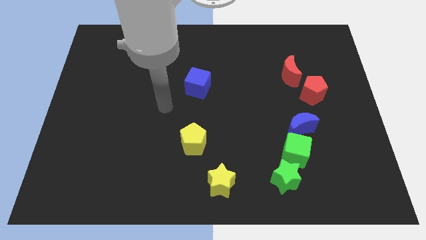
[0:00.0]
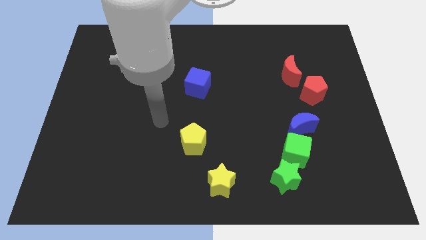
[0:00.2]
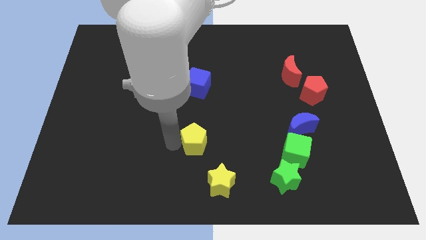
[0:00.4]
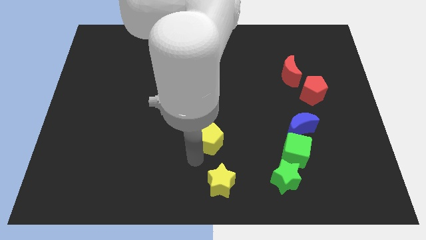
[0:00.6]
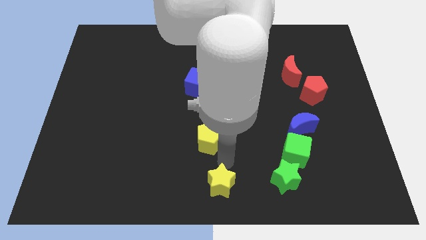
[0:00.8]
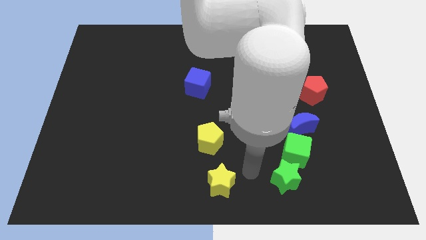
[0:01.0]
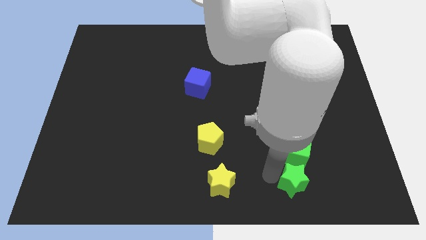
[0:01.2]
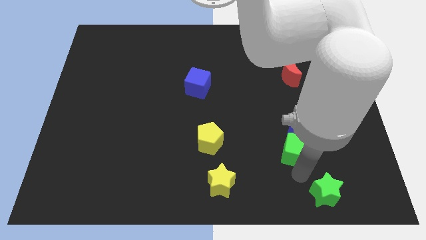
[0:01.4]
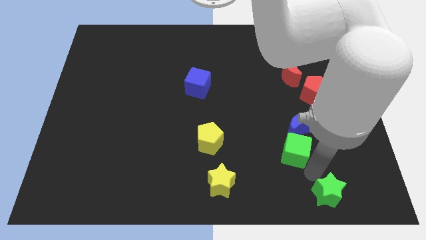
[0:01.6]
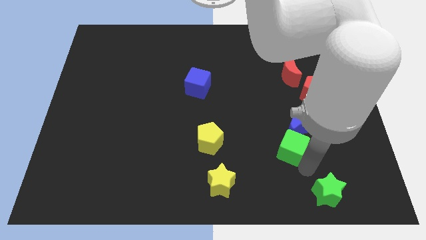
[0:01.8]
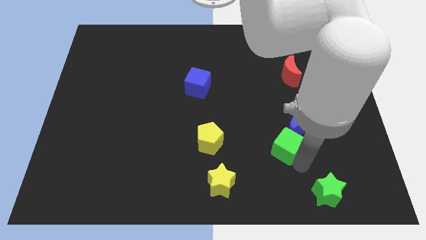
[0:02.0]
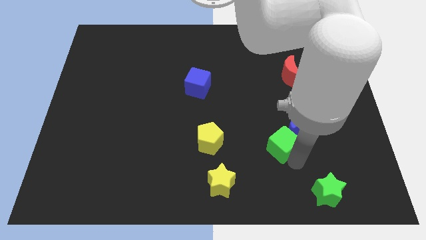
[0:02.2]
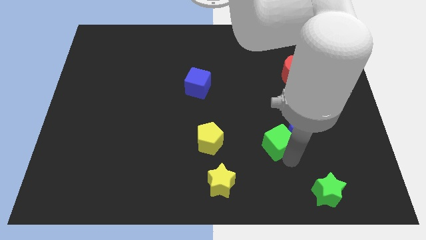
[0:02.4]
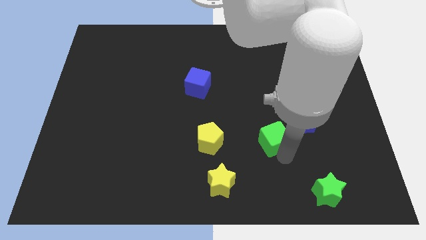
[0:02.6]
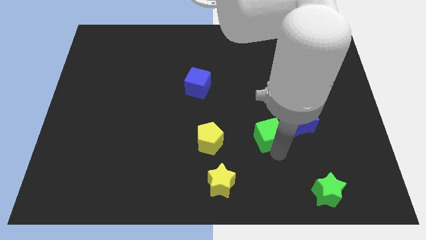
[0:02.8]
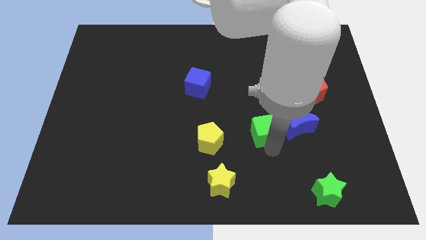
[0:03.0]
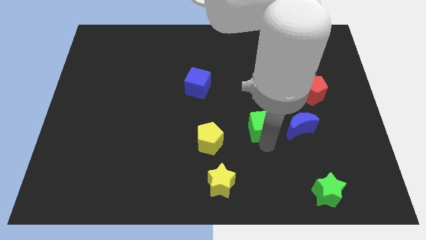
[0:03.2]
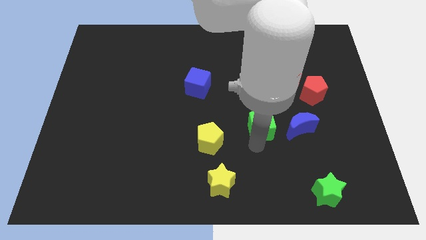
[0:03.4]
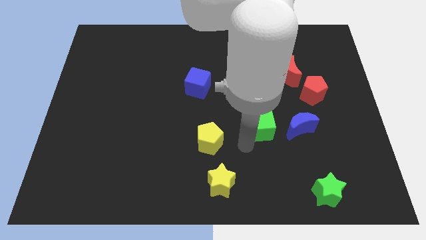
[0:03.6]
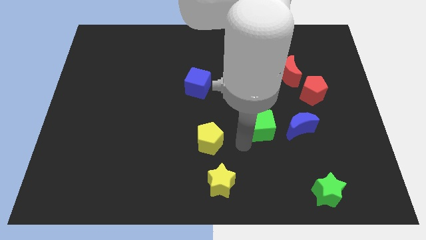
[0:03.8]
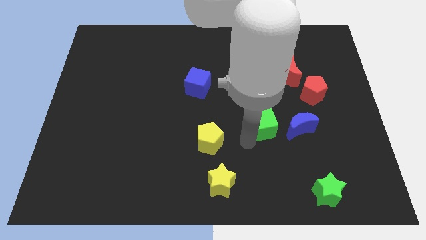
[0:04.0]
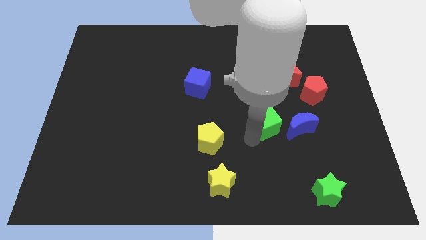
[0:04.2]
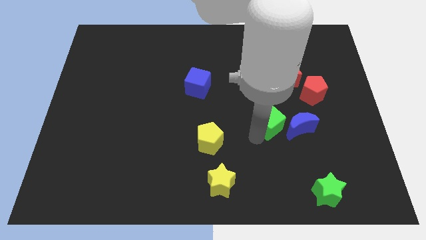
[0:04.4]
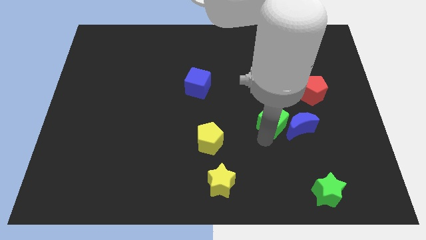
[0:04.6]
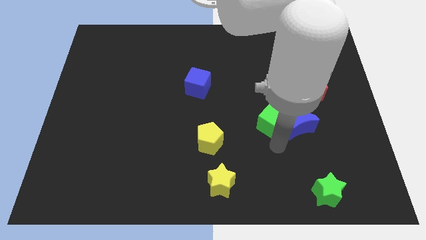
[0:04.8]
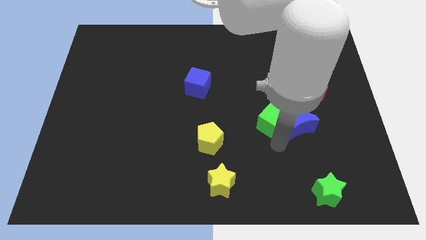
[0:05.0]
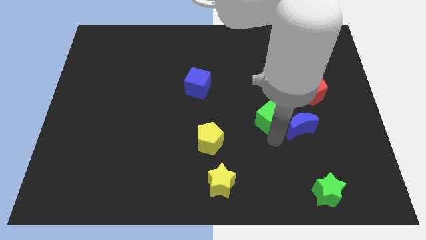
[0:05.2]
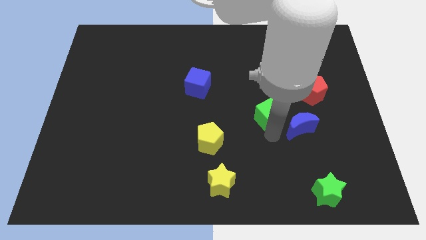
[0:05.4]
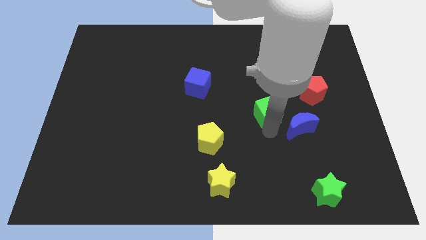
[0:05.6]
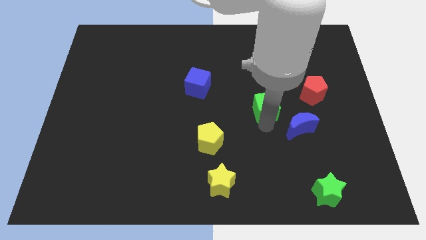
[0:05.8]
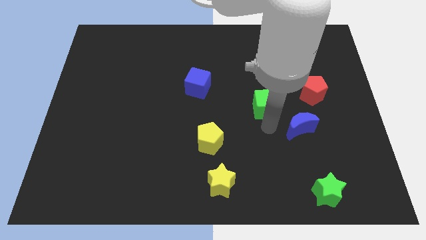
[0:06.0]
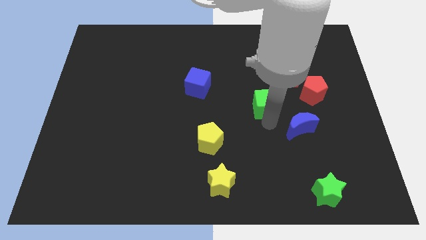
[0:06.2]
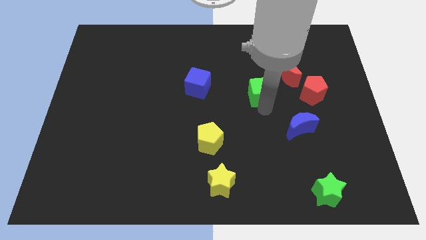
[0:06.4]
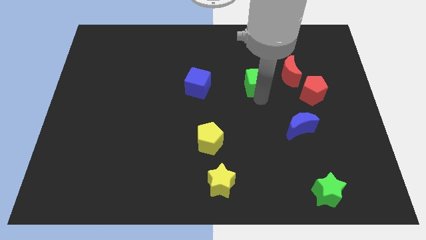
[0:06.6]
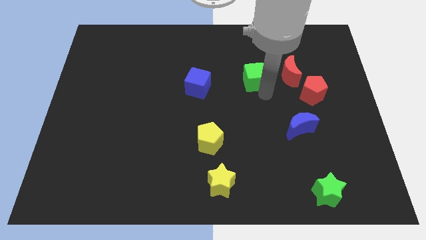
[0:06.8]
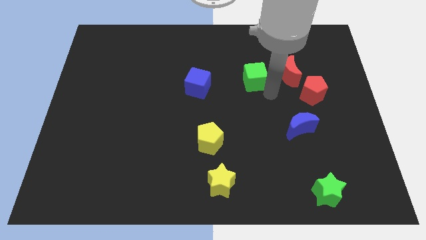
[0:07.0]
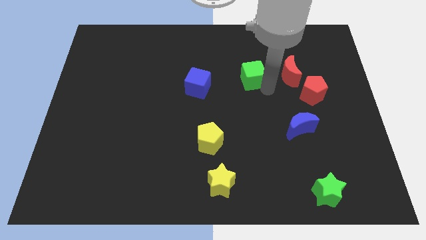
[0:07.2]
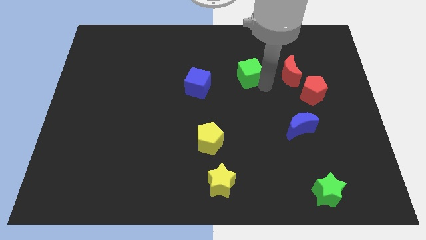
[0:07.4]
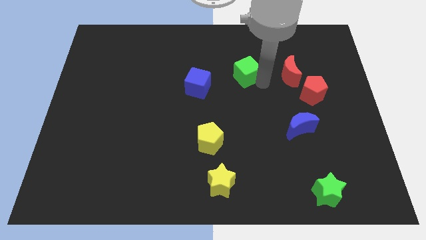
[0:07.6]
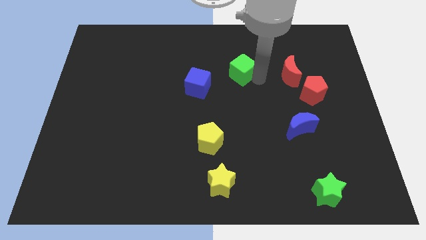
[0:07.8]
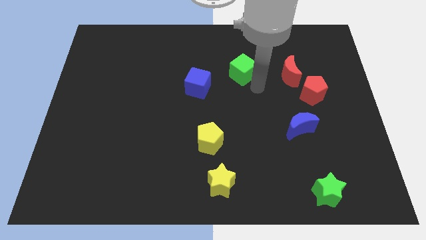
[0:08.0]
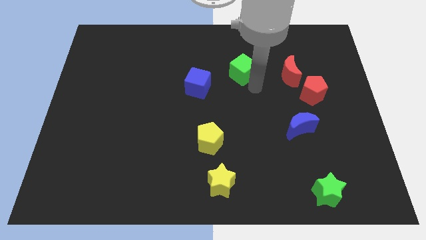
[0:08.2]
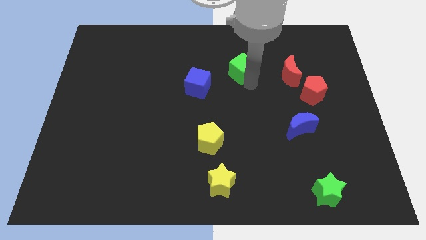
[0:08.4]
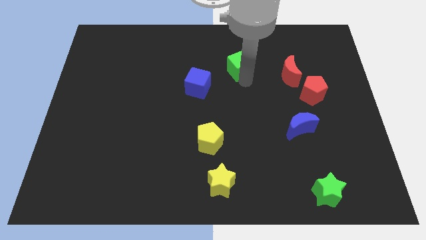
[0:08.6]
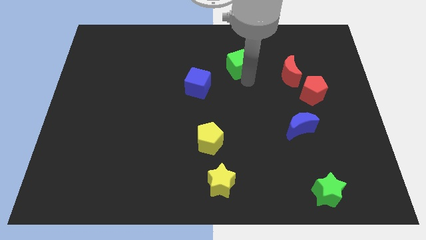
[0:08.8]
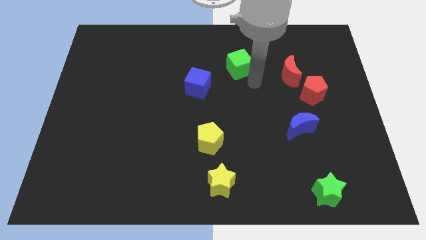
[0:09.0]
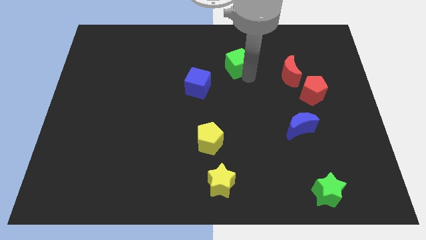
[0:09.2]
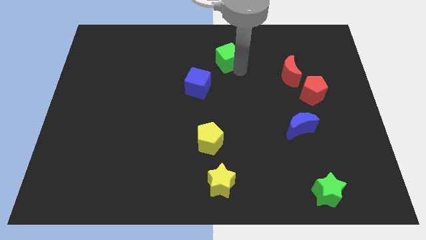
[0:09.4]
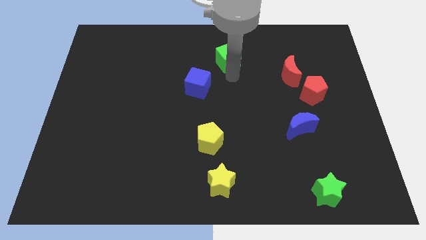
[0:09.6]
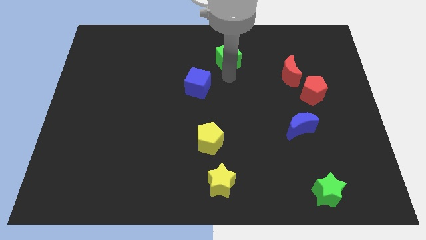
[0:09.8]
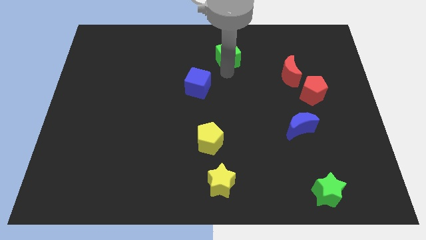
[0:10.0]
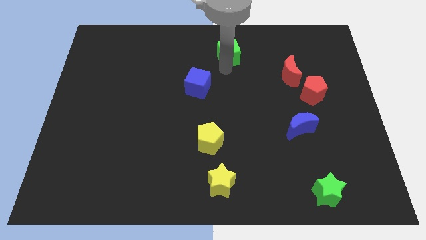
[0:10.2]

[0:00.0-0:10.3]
move the green cube to the top

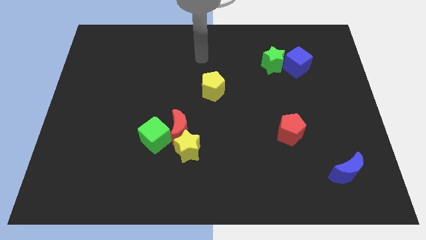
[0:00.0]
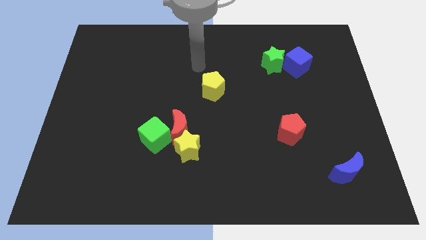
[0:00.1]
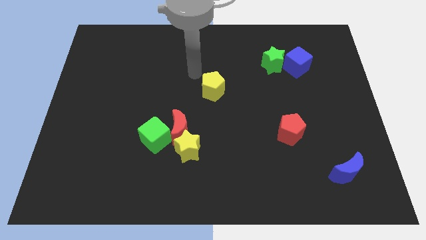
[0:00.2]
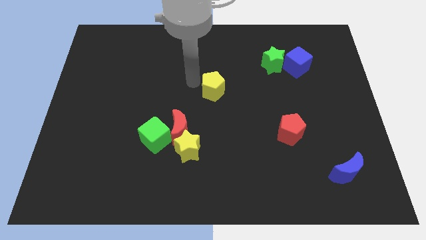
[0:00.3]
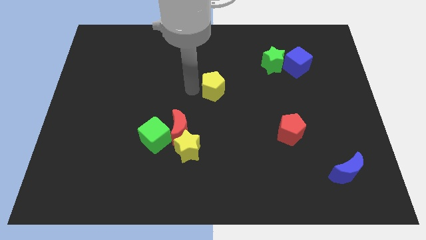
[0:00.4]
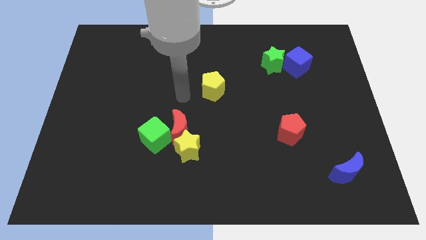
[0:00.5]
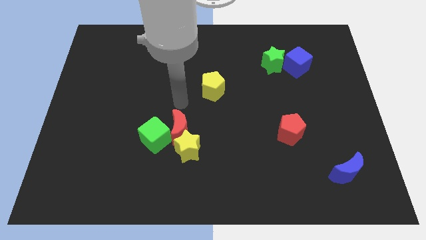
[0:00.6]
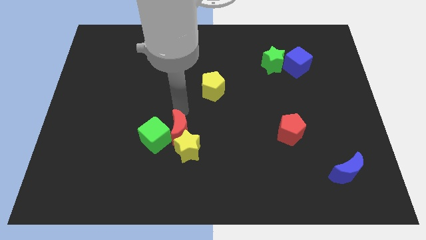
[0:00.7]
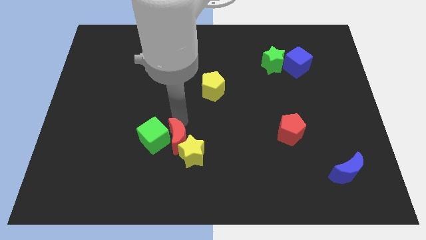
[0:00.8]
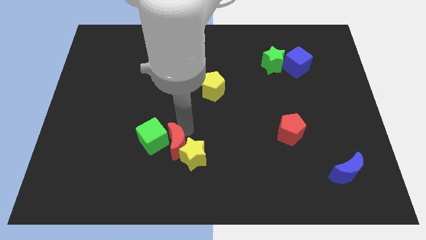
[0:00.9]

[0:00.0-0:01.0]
move the yellow star to the bottom

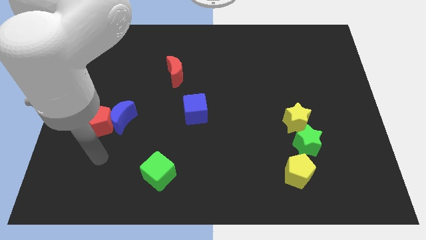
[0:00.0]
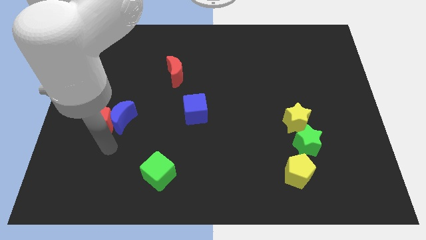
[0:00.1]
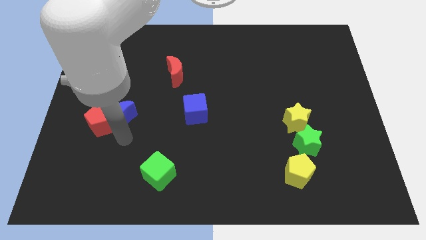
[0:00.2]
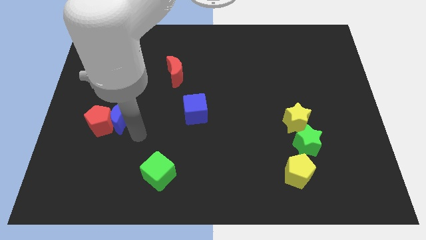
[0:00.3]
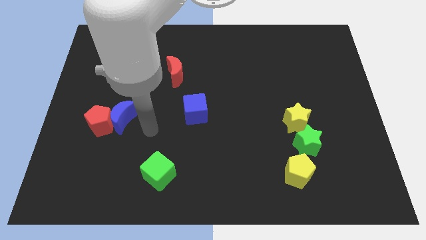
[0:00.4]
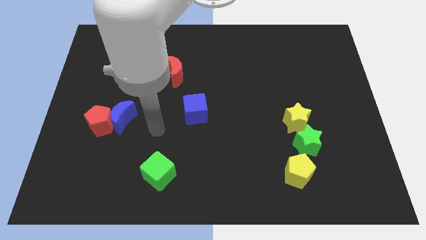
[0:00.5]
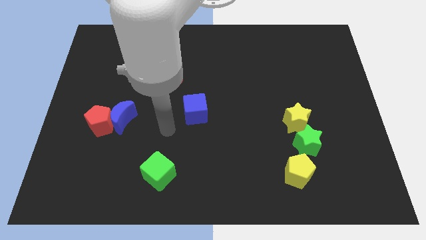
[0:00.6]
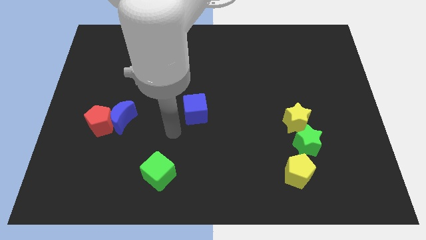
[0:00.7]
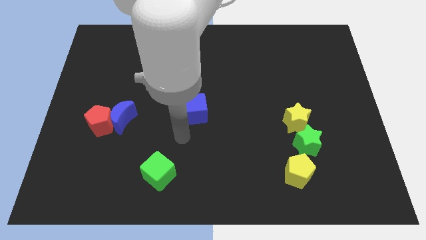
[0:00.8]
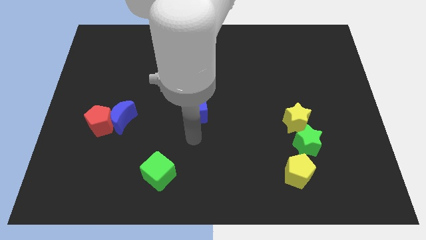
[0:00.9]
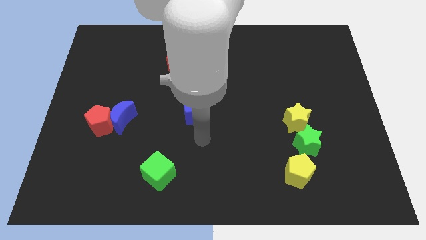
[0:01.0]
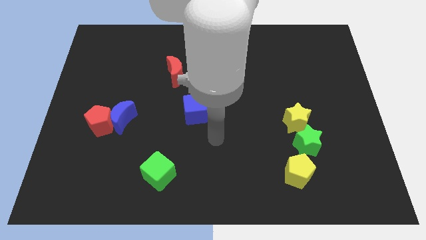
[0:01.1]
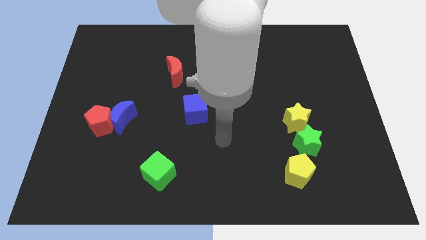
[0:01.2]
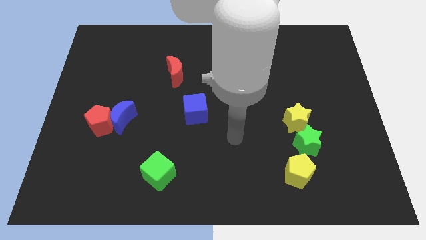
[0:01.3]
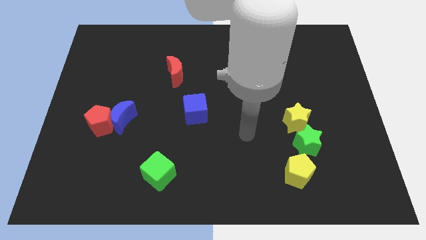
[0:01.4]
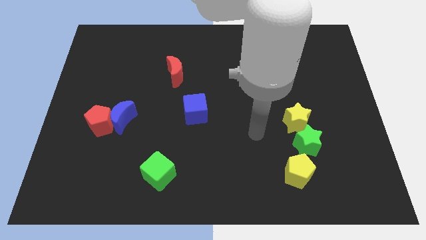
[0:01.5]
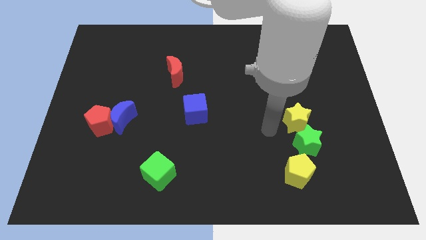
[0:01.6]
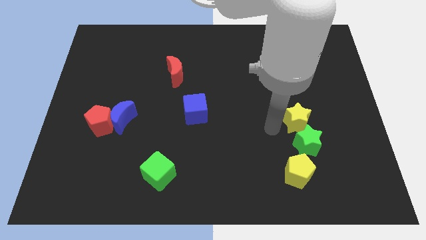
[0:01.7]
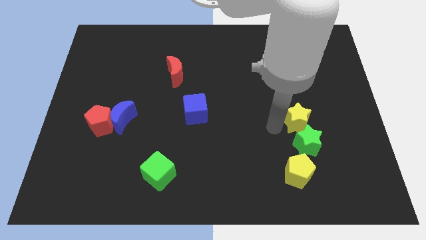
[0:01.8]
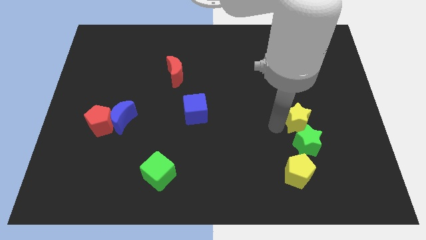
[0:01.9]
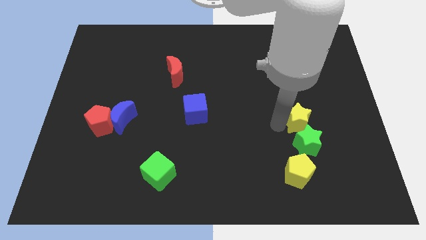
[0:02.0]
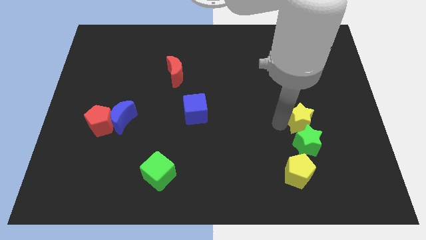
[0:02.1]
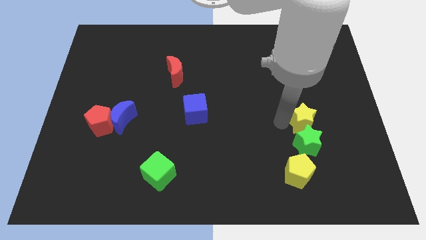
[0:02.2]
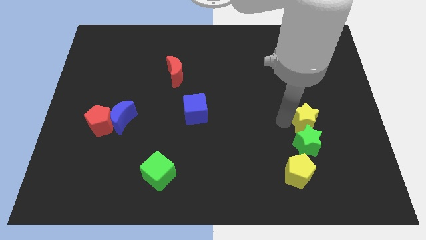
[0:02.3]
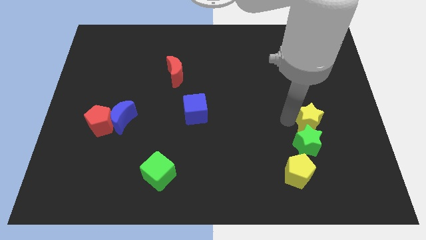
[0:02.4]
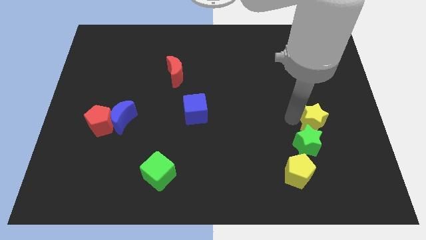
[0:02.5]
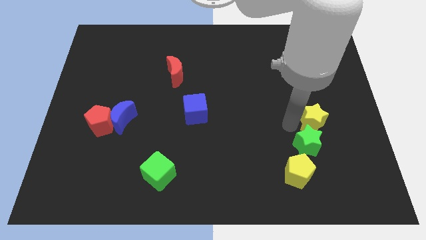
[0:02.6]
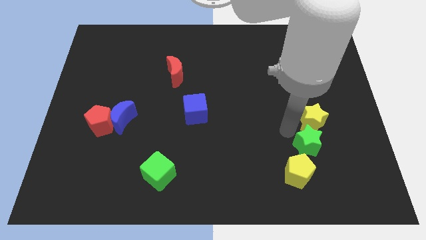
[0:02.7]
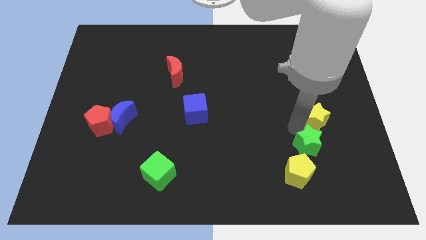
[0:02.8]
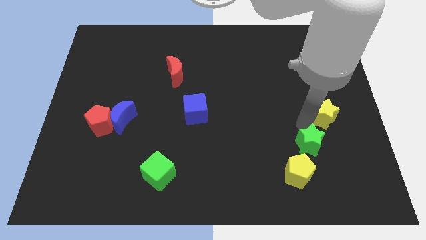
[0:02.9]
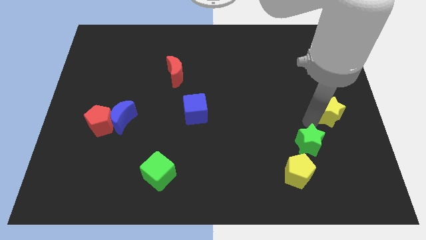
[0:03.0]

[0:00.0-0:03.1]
push the yellow star to the right side
